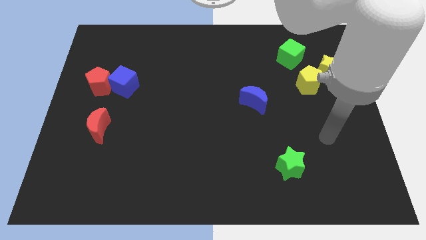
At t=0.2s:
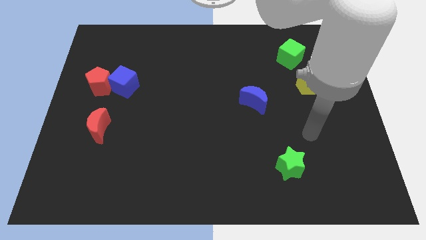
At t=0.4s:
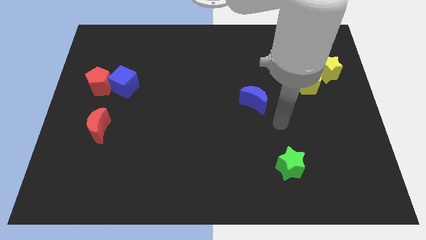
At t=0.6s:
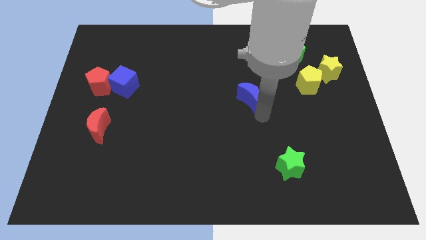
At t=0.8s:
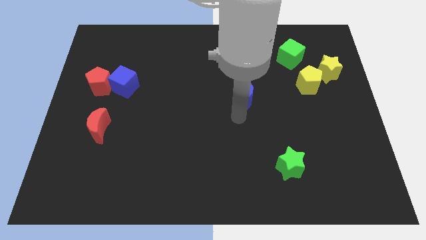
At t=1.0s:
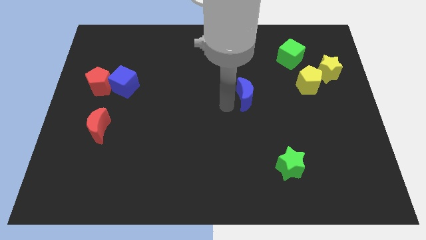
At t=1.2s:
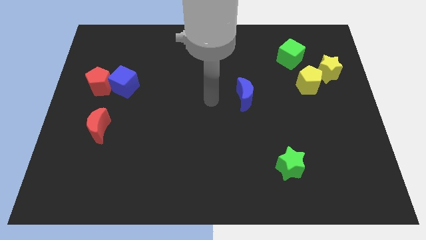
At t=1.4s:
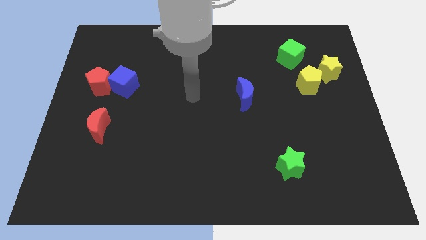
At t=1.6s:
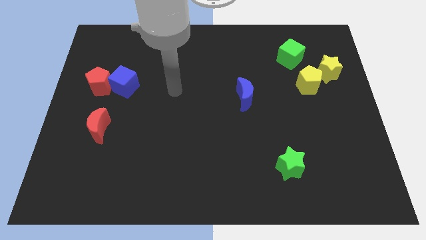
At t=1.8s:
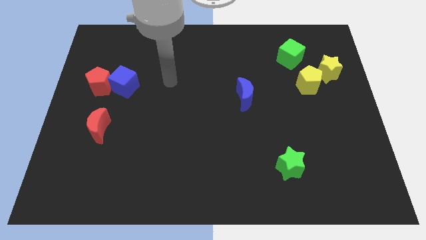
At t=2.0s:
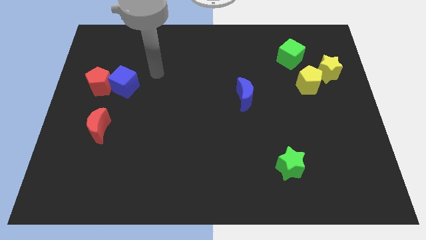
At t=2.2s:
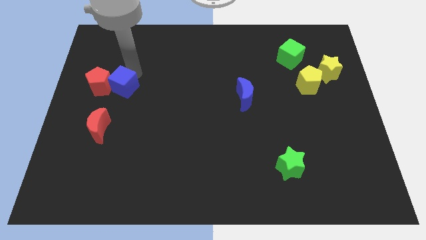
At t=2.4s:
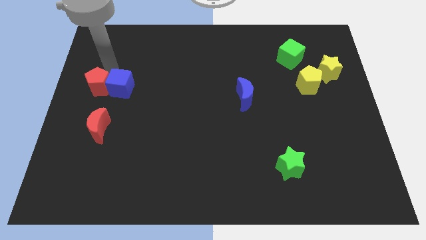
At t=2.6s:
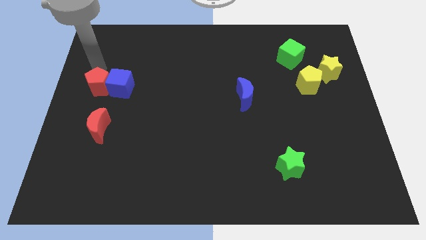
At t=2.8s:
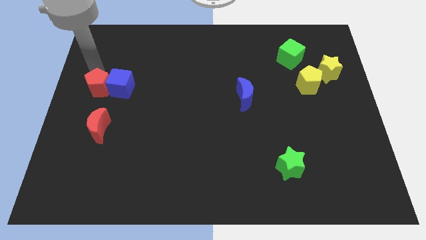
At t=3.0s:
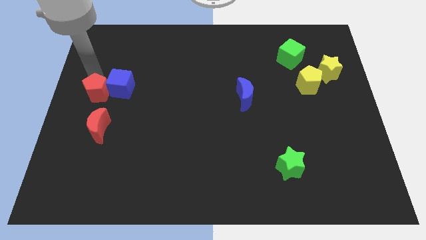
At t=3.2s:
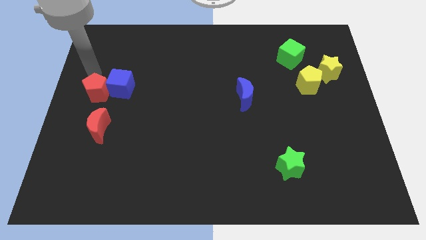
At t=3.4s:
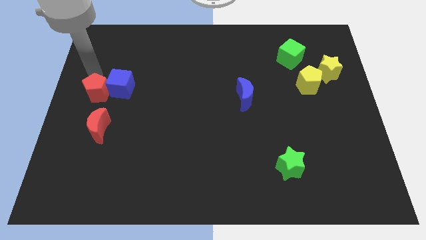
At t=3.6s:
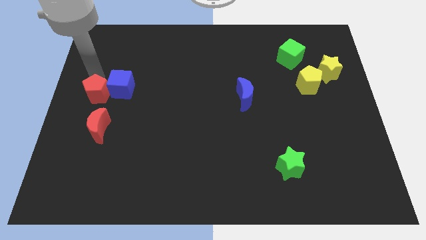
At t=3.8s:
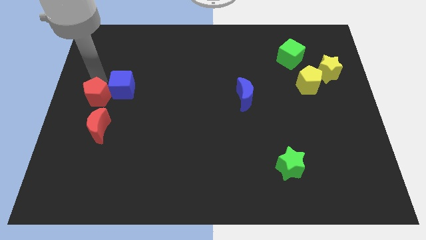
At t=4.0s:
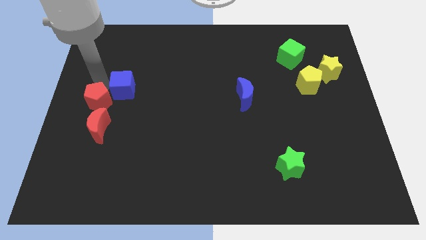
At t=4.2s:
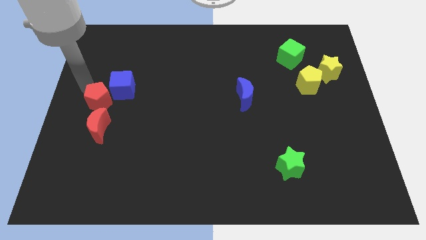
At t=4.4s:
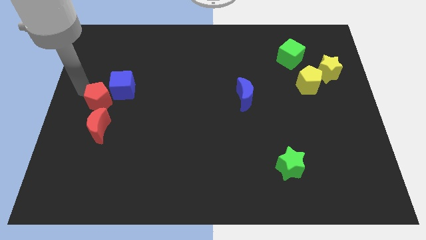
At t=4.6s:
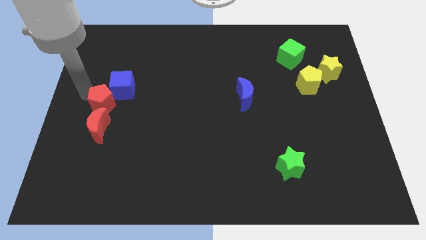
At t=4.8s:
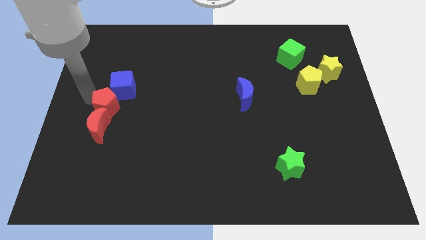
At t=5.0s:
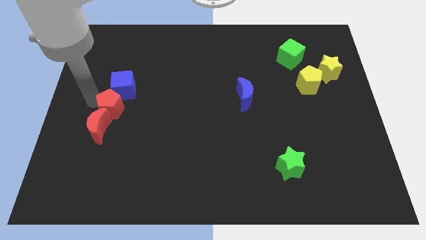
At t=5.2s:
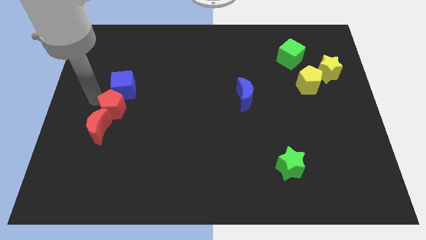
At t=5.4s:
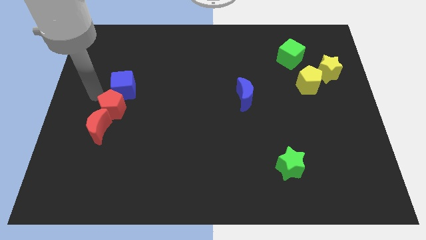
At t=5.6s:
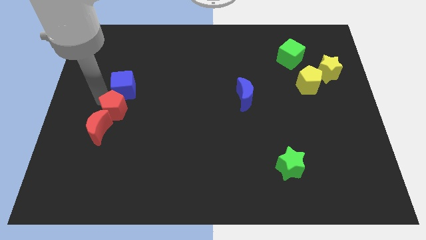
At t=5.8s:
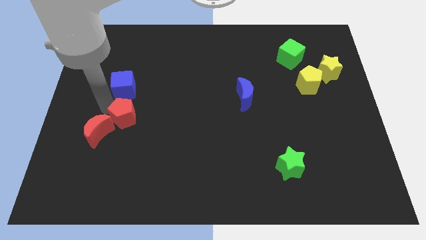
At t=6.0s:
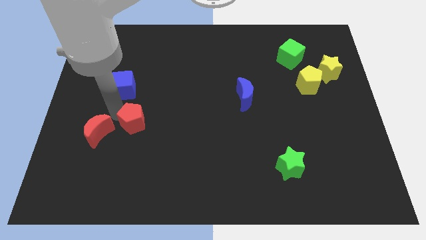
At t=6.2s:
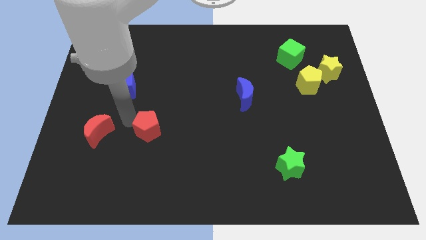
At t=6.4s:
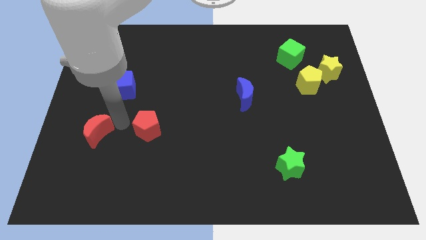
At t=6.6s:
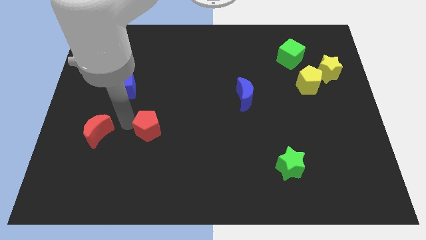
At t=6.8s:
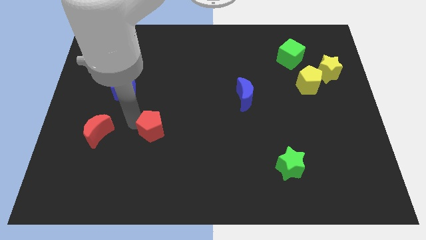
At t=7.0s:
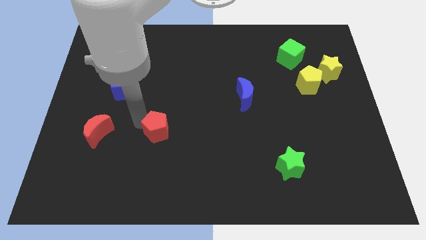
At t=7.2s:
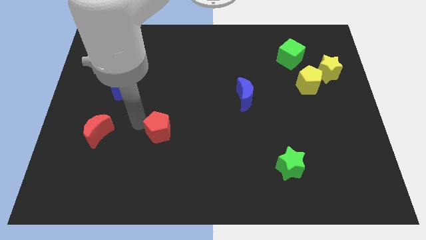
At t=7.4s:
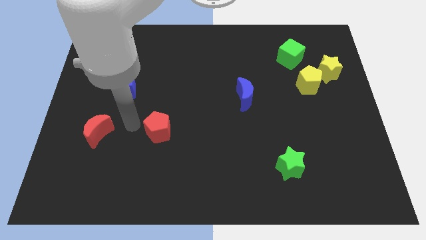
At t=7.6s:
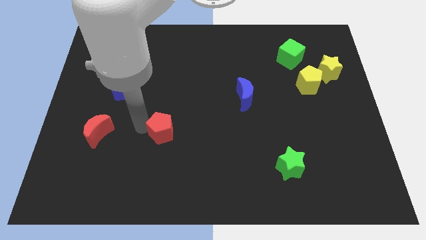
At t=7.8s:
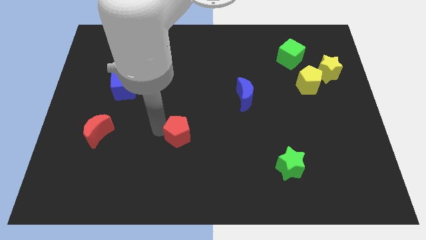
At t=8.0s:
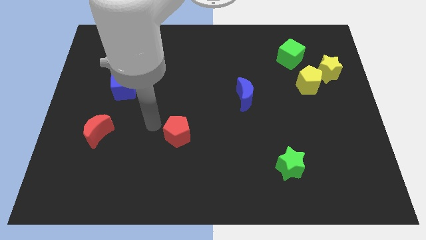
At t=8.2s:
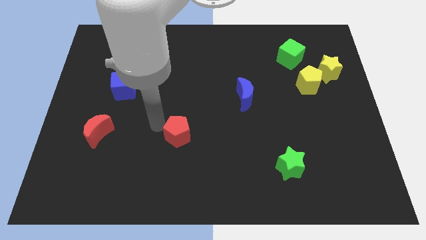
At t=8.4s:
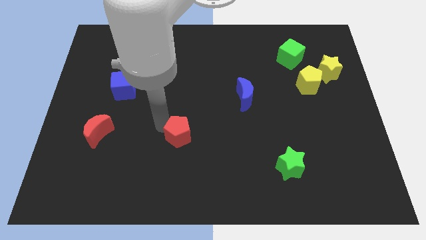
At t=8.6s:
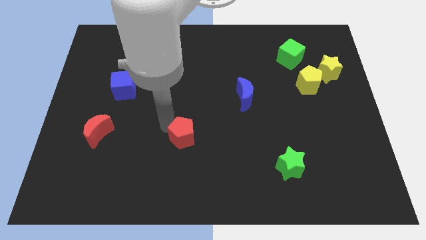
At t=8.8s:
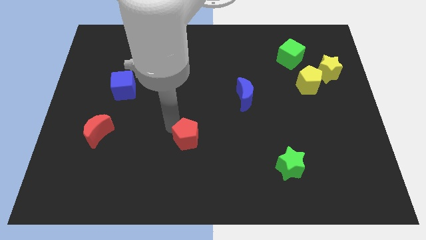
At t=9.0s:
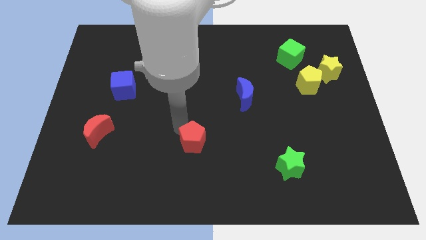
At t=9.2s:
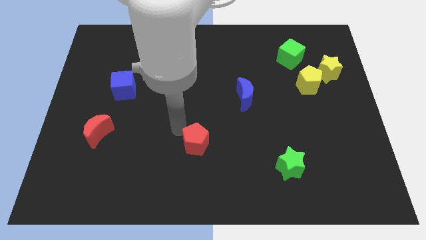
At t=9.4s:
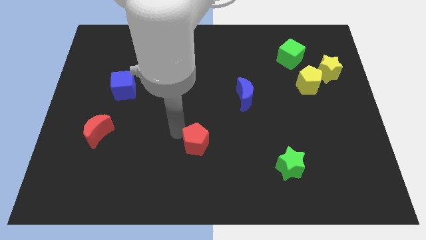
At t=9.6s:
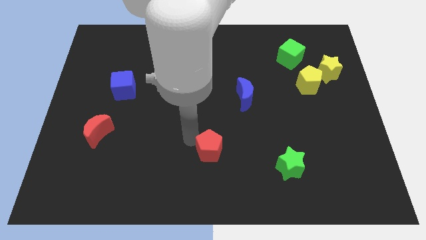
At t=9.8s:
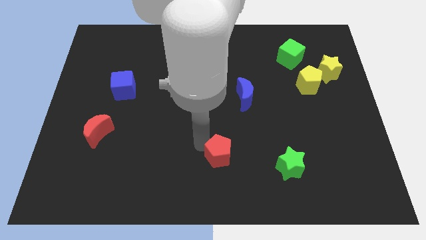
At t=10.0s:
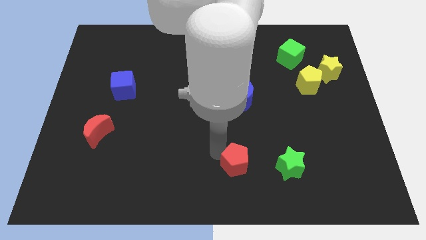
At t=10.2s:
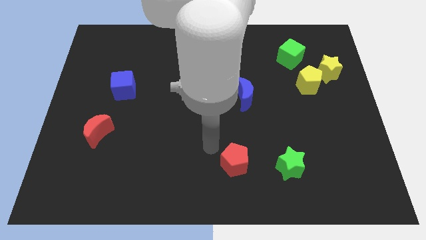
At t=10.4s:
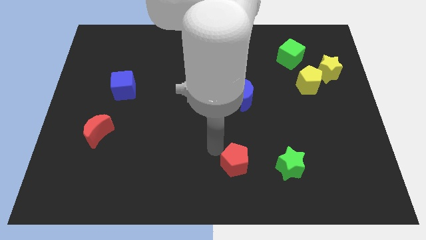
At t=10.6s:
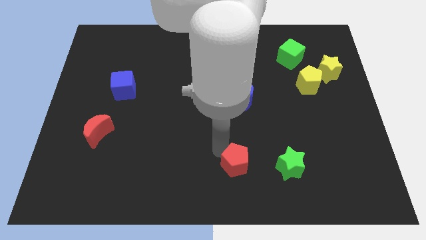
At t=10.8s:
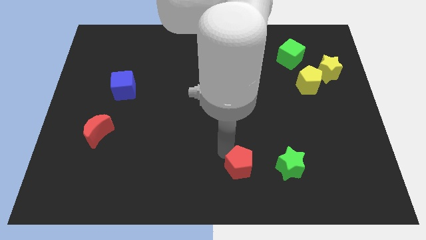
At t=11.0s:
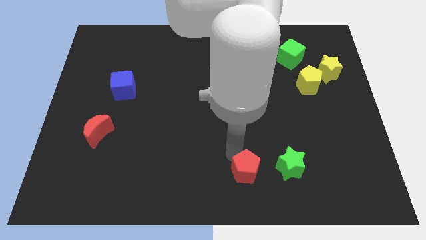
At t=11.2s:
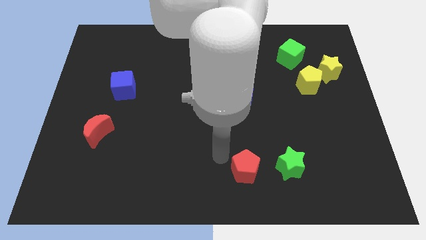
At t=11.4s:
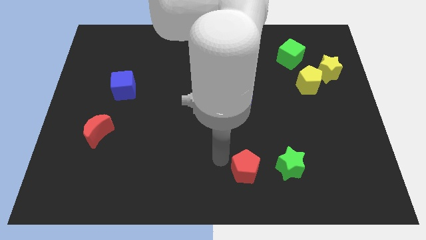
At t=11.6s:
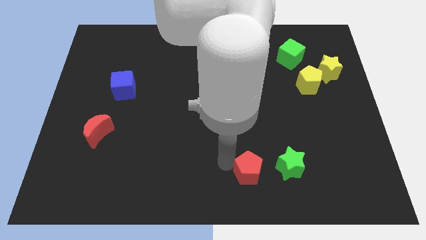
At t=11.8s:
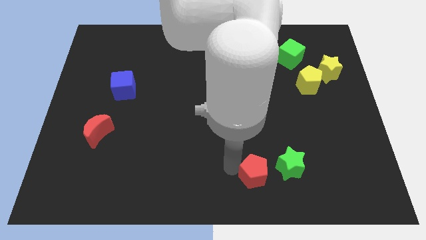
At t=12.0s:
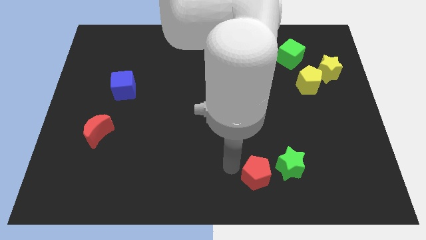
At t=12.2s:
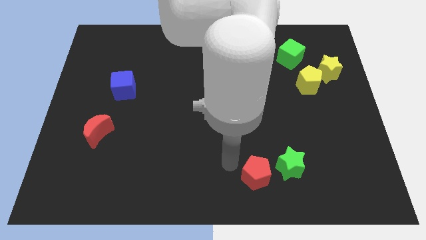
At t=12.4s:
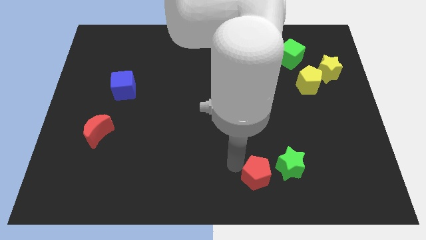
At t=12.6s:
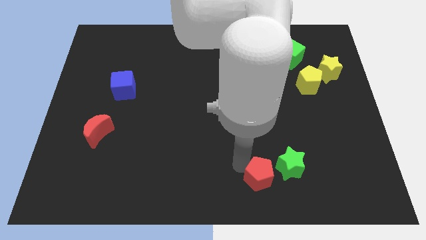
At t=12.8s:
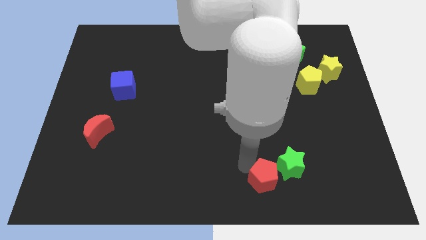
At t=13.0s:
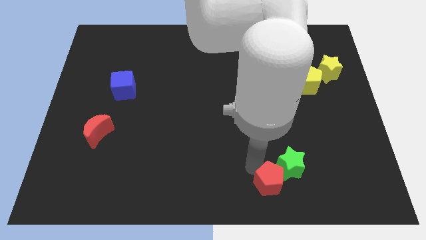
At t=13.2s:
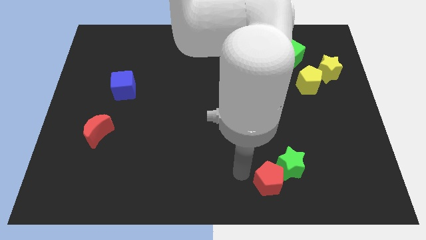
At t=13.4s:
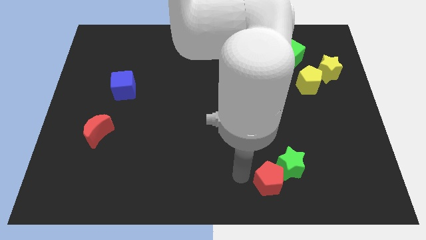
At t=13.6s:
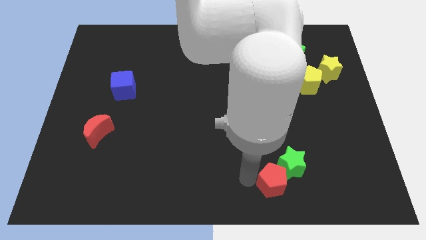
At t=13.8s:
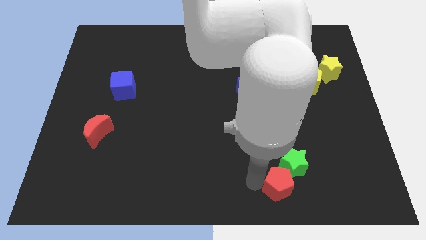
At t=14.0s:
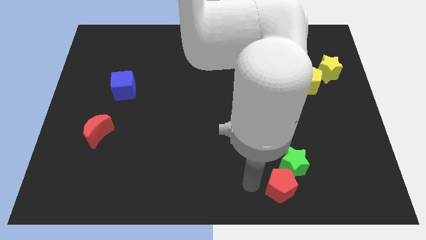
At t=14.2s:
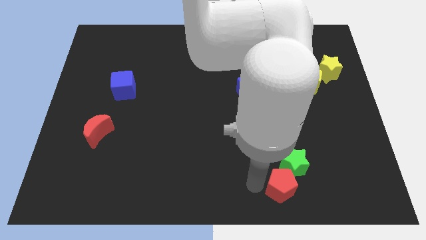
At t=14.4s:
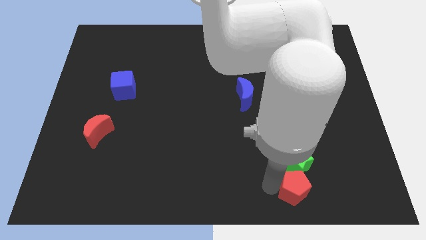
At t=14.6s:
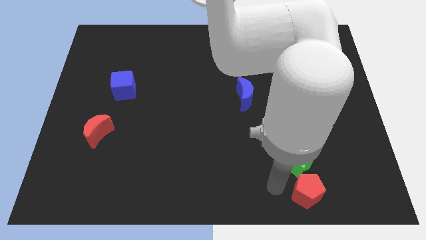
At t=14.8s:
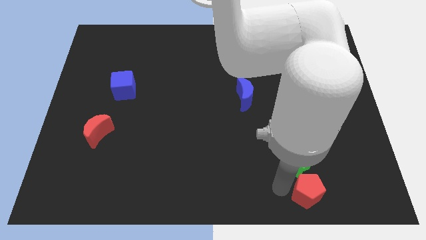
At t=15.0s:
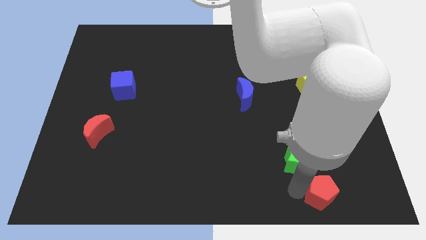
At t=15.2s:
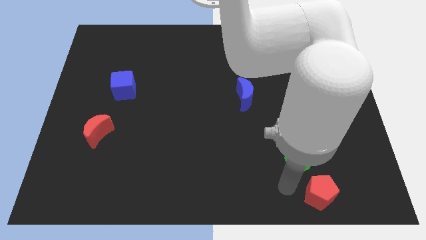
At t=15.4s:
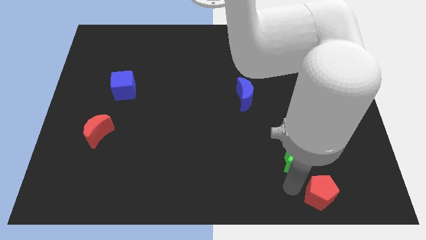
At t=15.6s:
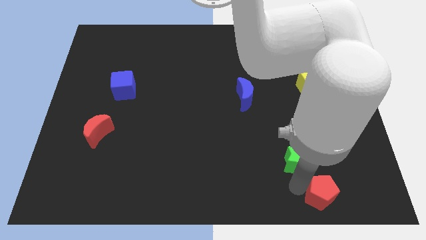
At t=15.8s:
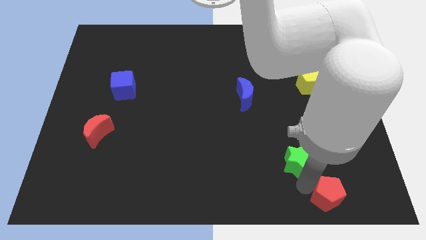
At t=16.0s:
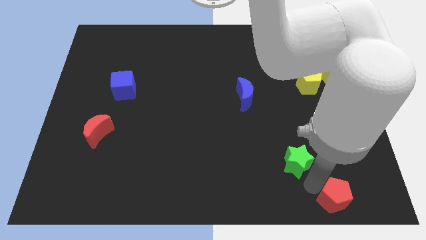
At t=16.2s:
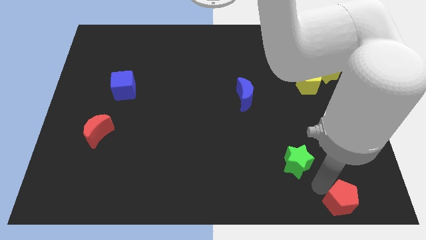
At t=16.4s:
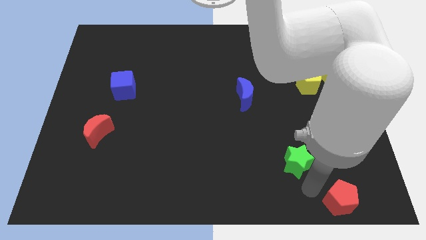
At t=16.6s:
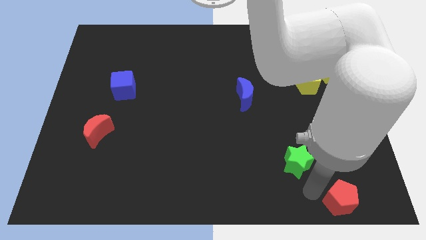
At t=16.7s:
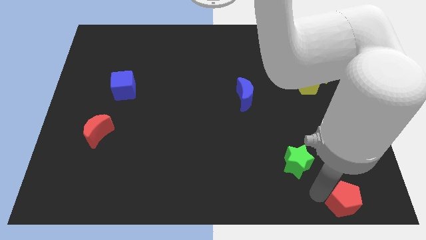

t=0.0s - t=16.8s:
slide the red pentagon to the lower right corner
